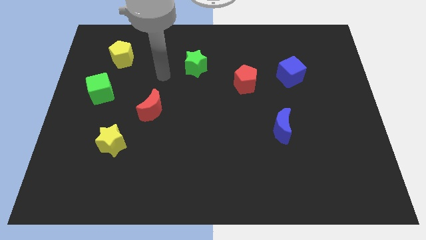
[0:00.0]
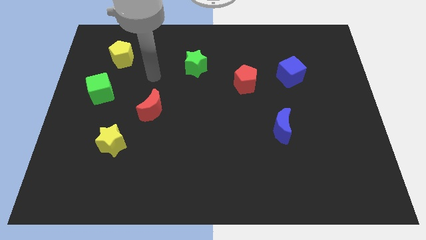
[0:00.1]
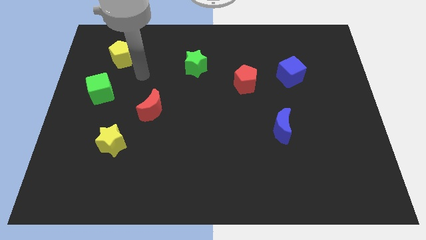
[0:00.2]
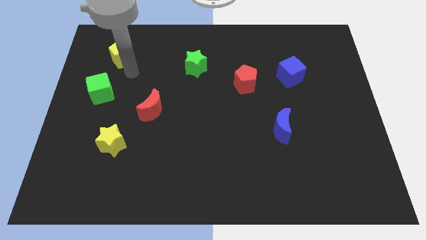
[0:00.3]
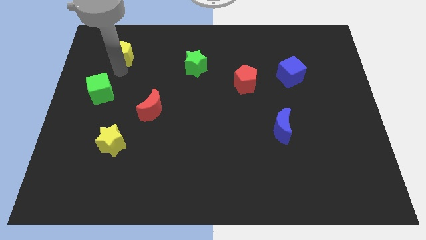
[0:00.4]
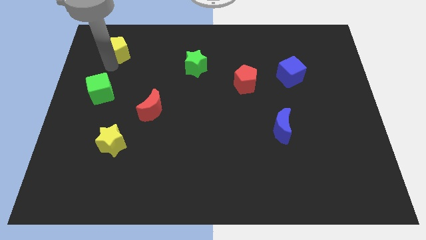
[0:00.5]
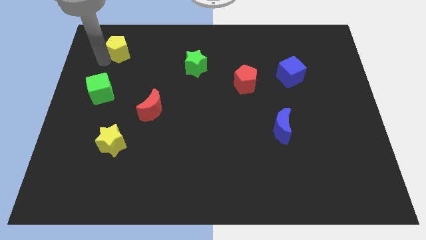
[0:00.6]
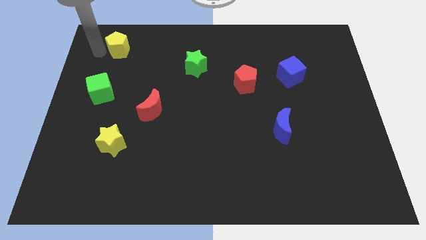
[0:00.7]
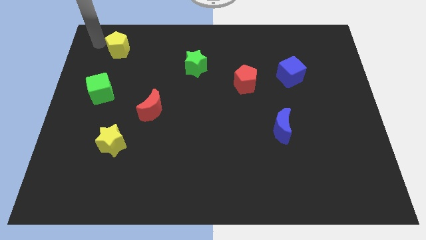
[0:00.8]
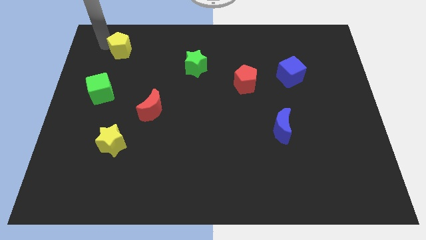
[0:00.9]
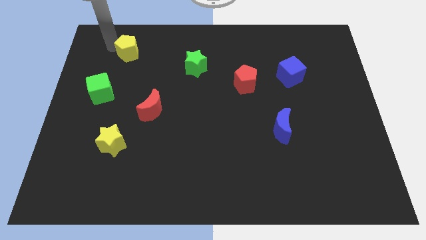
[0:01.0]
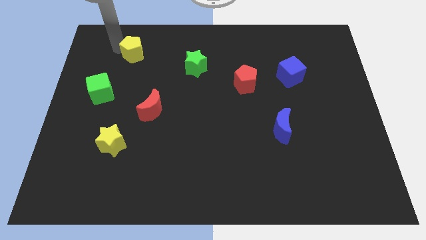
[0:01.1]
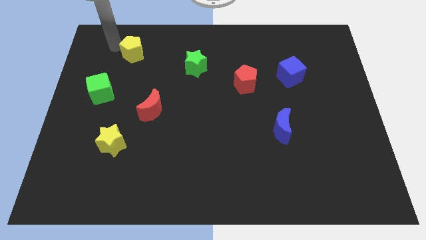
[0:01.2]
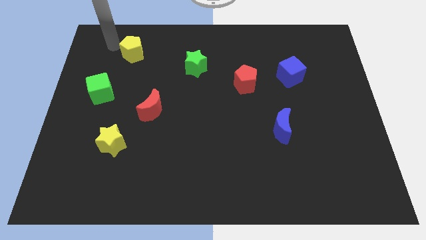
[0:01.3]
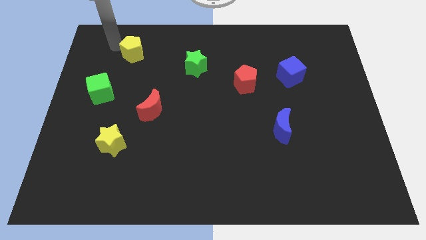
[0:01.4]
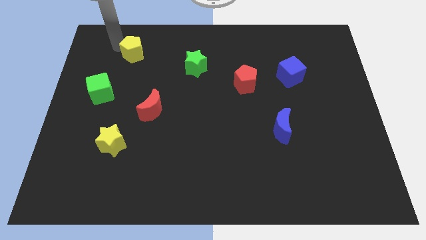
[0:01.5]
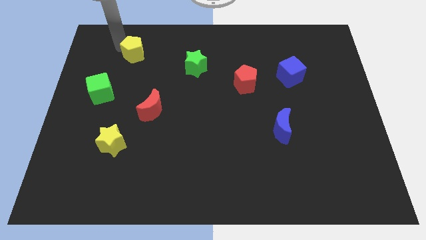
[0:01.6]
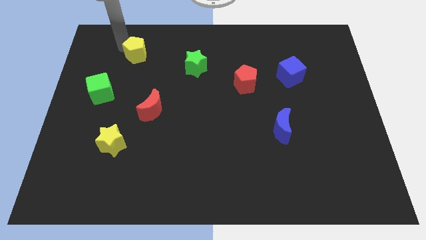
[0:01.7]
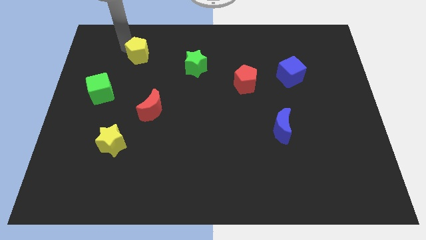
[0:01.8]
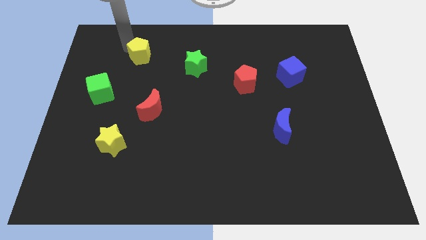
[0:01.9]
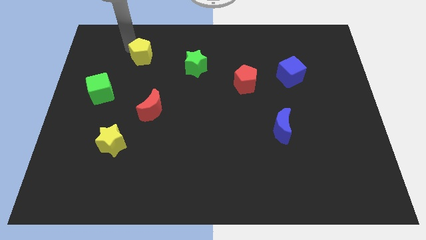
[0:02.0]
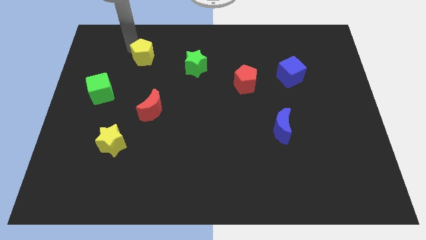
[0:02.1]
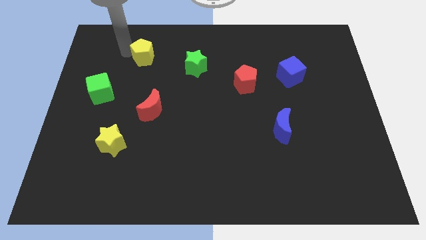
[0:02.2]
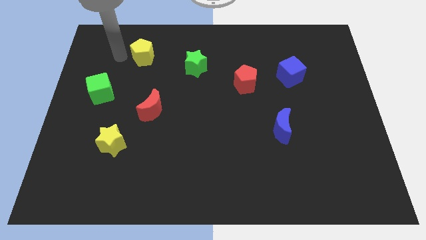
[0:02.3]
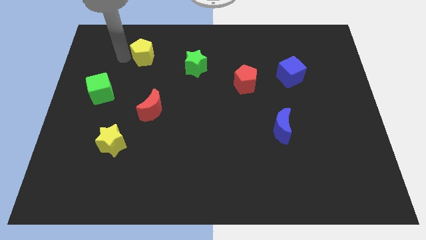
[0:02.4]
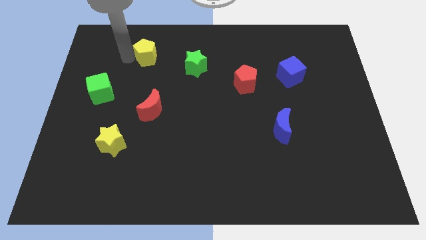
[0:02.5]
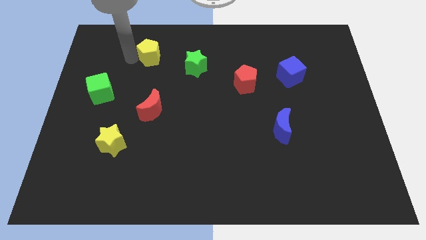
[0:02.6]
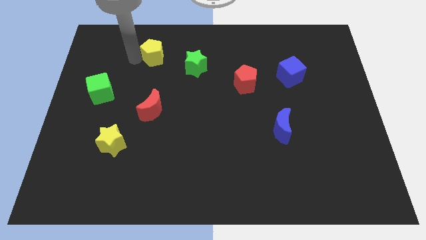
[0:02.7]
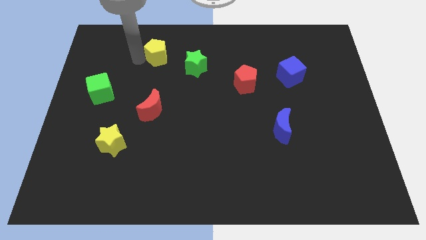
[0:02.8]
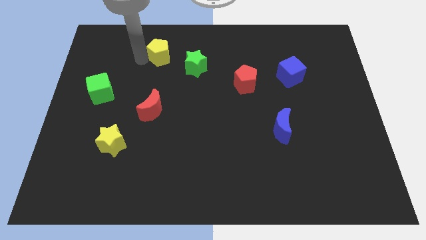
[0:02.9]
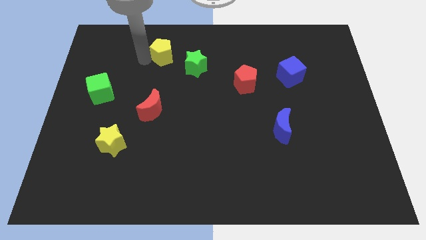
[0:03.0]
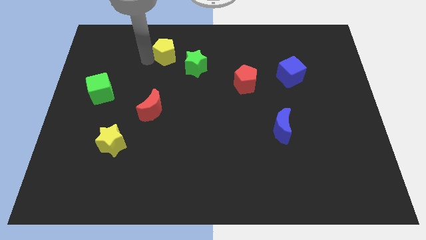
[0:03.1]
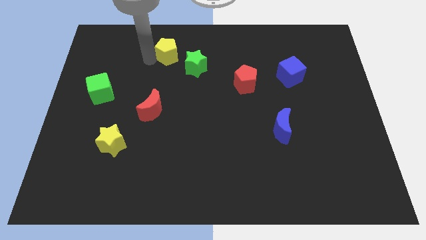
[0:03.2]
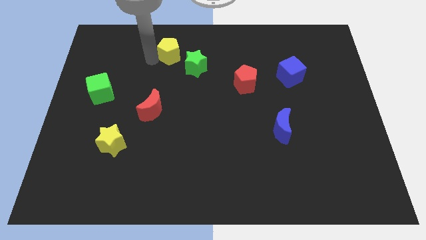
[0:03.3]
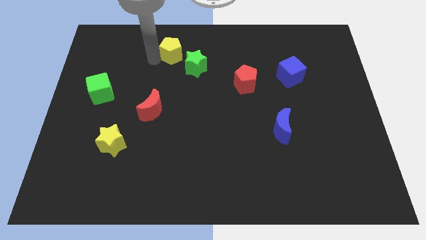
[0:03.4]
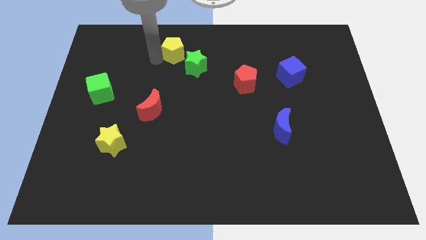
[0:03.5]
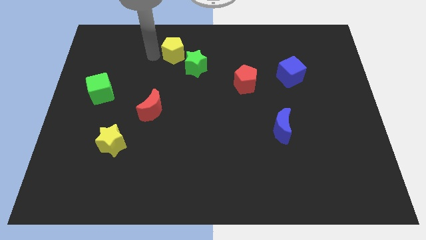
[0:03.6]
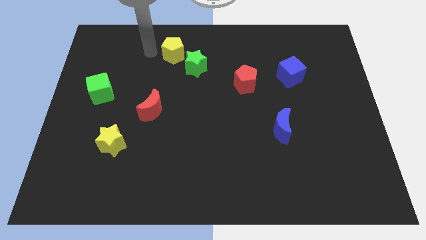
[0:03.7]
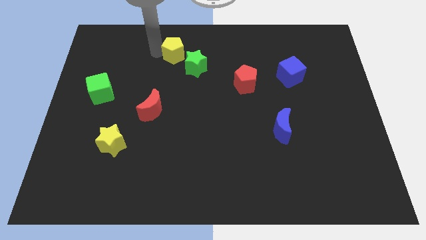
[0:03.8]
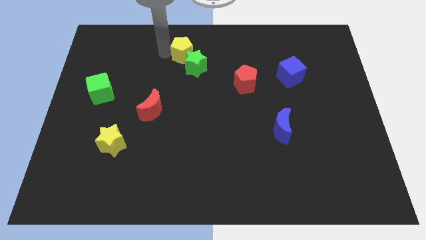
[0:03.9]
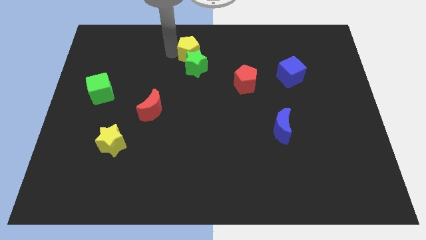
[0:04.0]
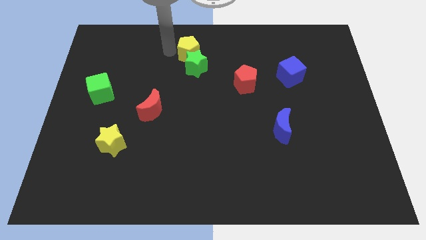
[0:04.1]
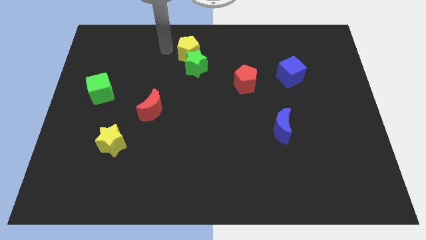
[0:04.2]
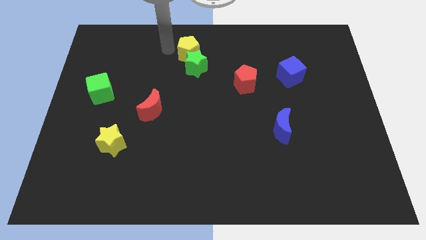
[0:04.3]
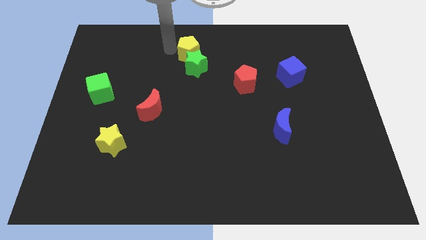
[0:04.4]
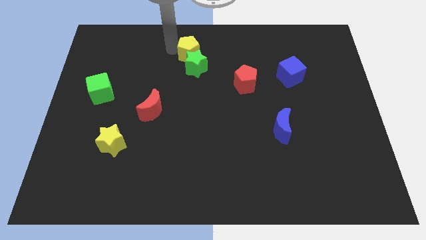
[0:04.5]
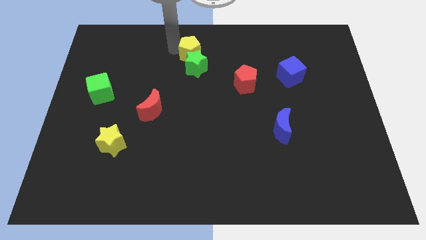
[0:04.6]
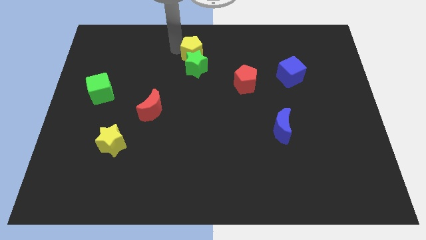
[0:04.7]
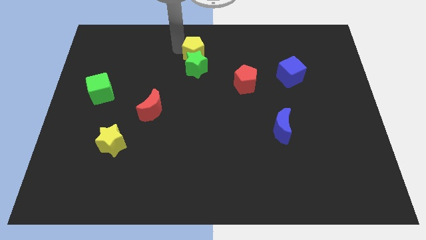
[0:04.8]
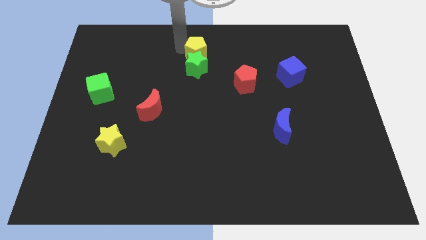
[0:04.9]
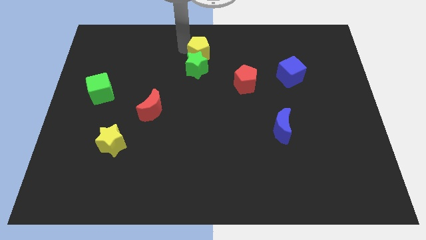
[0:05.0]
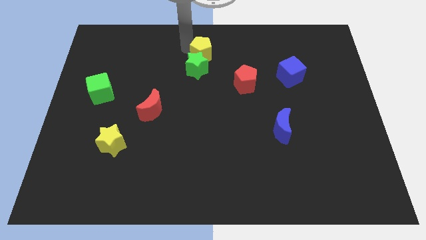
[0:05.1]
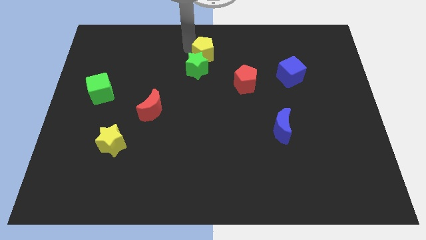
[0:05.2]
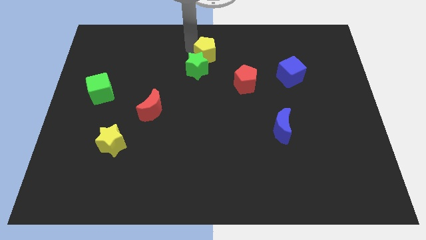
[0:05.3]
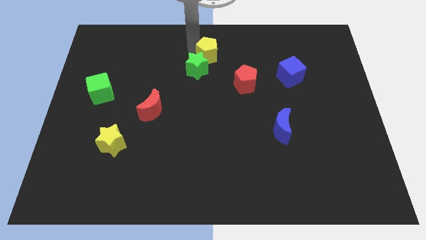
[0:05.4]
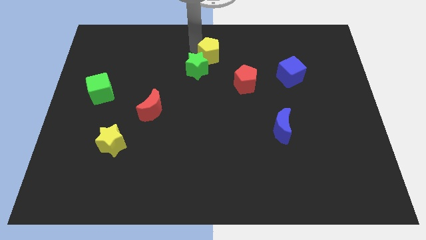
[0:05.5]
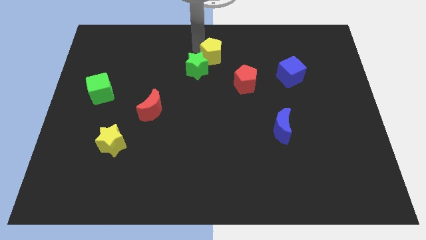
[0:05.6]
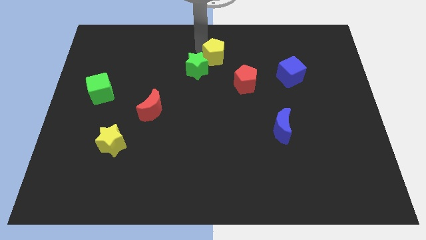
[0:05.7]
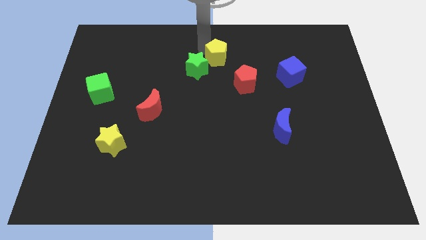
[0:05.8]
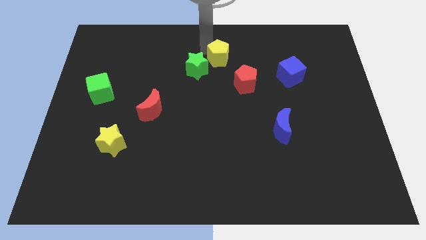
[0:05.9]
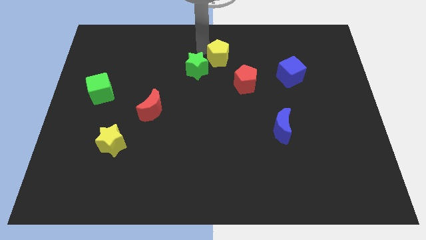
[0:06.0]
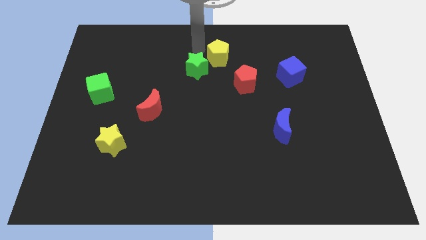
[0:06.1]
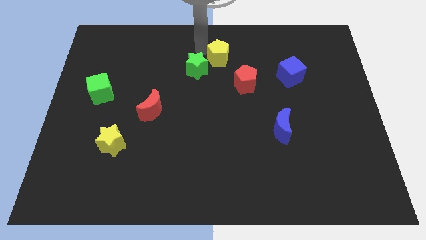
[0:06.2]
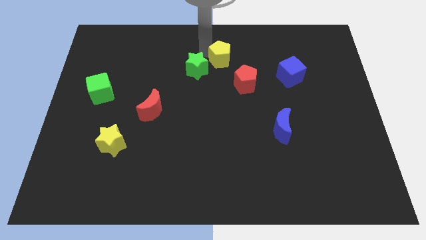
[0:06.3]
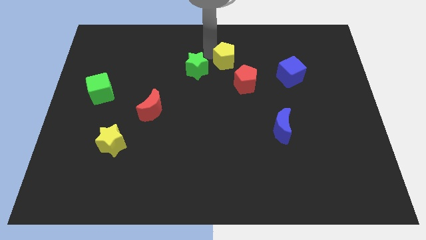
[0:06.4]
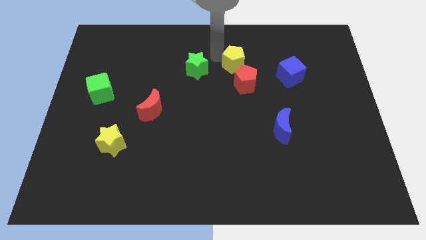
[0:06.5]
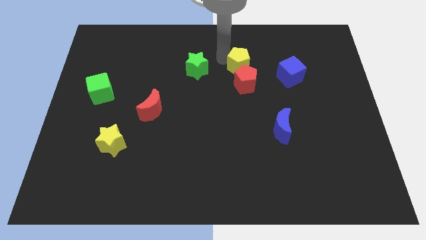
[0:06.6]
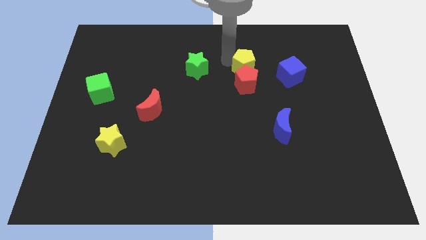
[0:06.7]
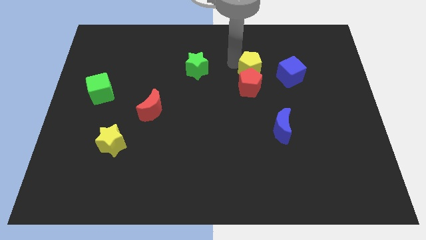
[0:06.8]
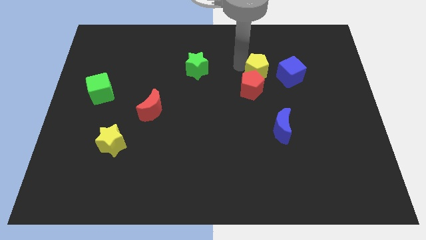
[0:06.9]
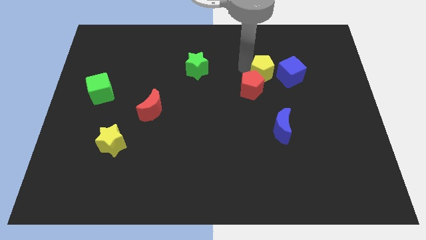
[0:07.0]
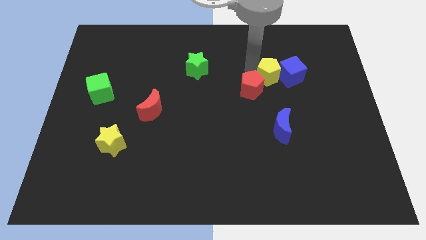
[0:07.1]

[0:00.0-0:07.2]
put the yellow pentagon close to the blue cube

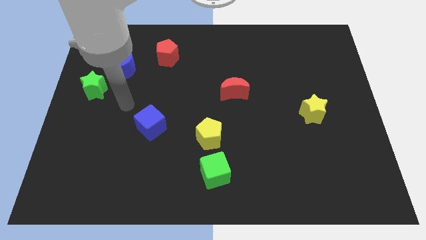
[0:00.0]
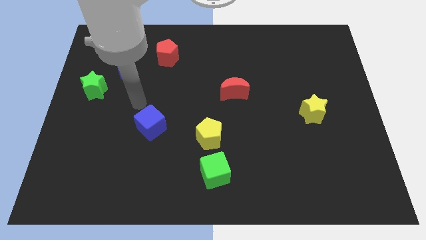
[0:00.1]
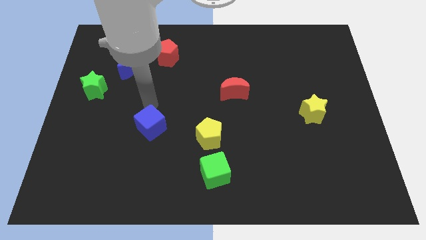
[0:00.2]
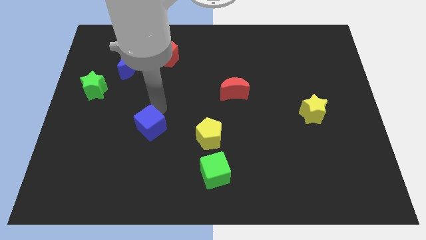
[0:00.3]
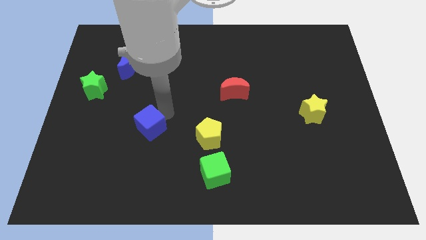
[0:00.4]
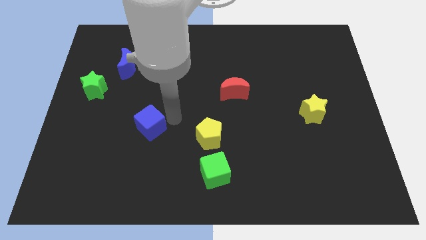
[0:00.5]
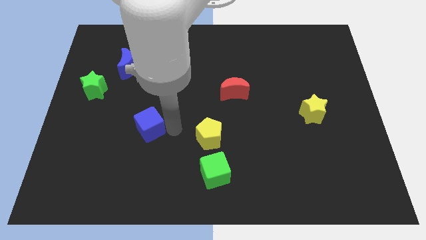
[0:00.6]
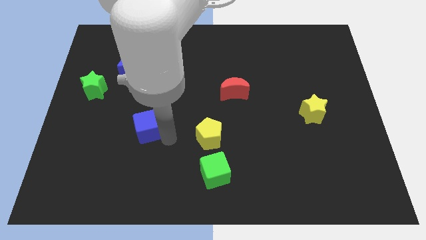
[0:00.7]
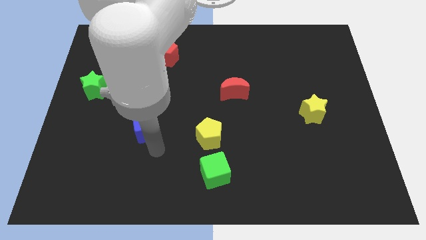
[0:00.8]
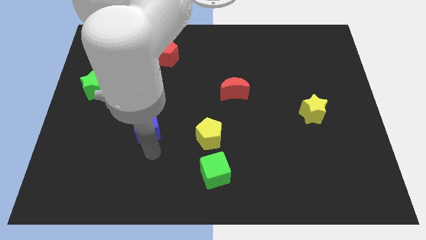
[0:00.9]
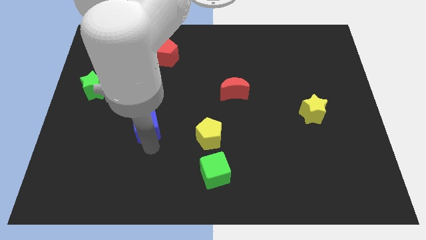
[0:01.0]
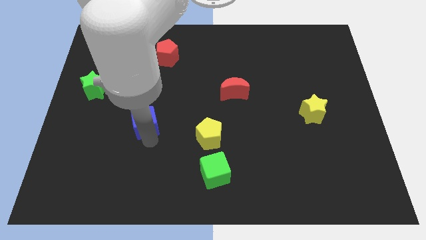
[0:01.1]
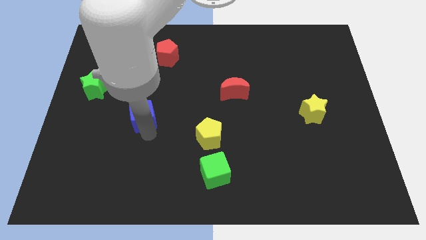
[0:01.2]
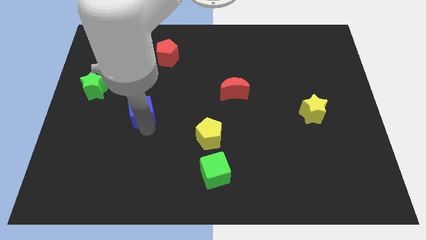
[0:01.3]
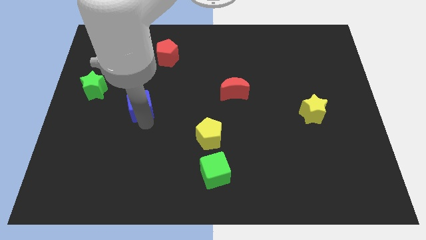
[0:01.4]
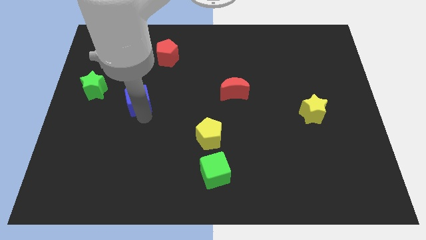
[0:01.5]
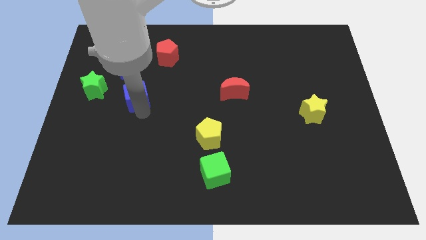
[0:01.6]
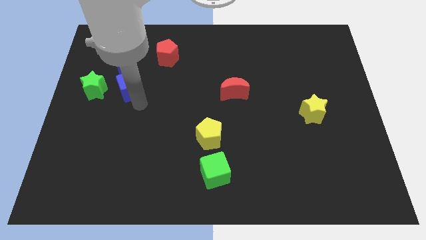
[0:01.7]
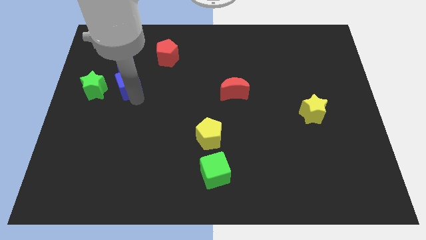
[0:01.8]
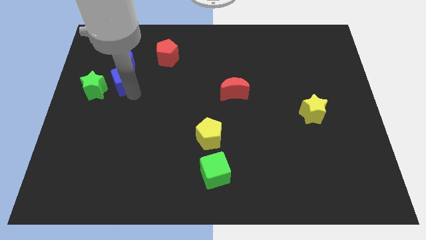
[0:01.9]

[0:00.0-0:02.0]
put the blue cube to the blue moon
